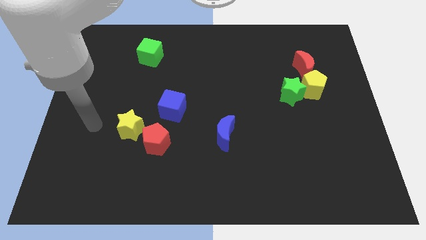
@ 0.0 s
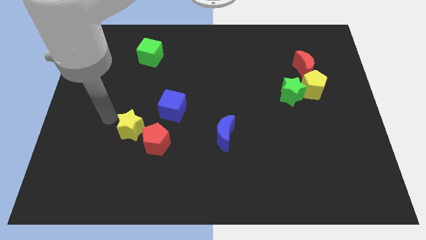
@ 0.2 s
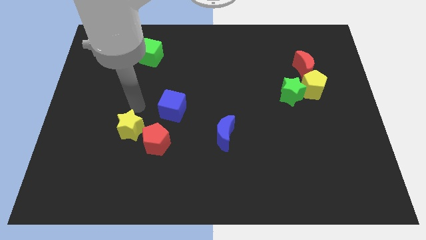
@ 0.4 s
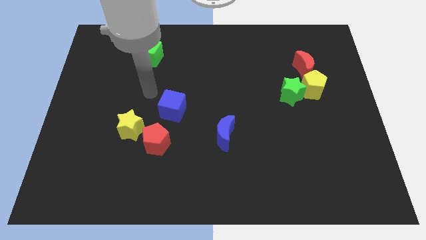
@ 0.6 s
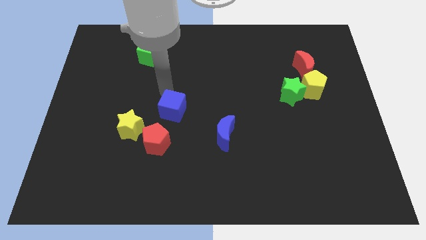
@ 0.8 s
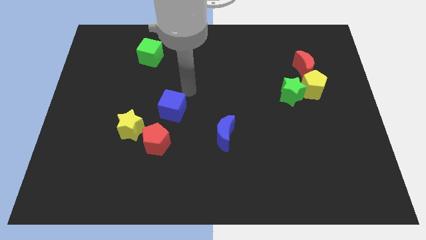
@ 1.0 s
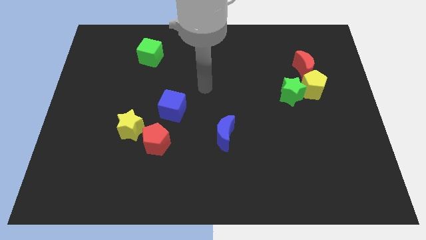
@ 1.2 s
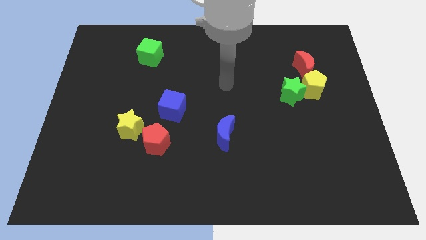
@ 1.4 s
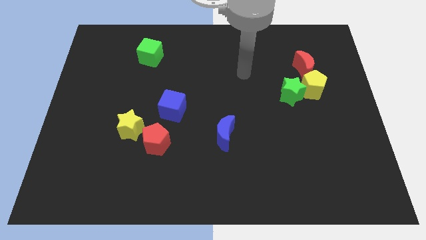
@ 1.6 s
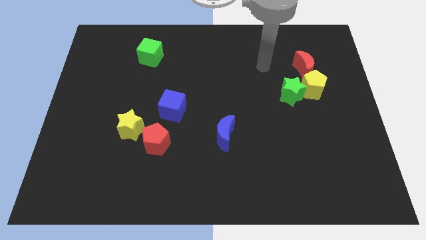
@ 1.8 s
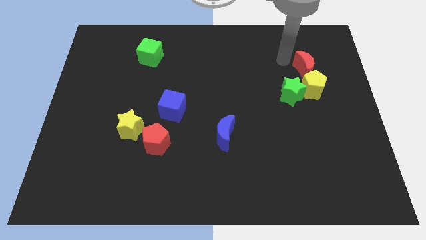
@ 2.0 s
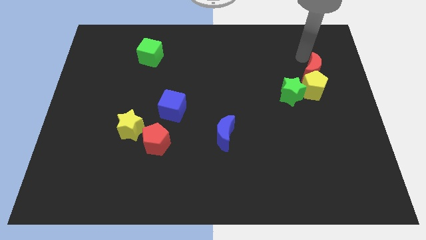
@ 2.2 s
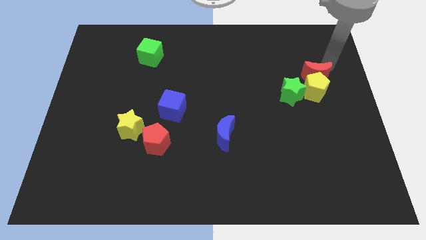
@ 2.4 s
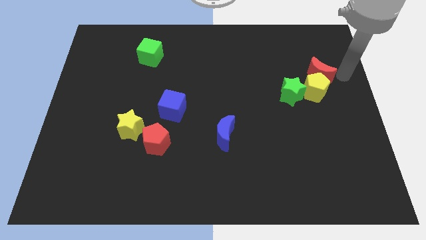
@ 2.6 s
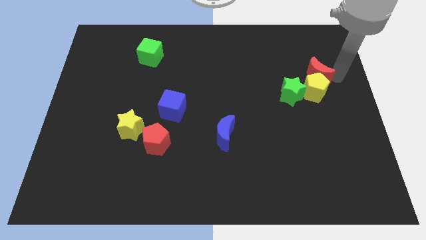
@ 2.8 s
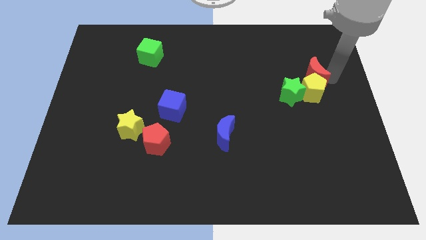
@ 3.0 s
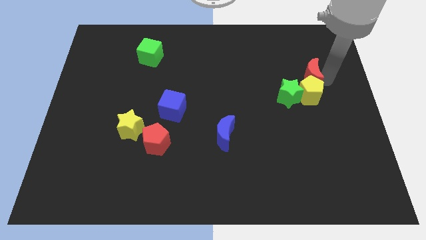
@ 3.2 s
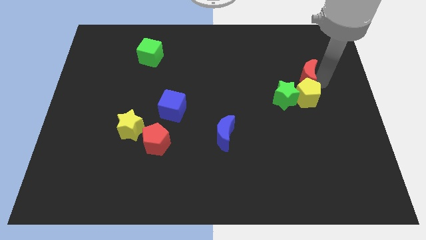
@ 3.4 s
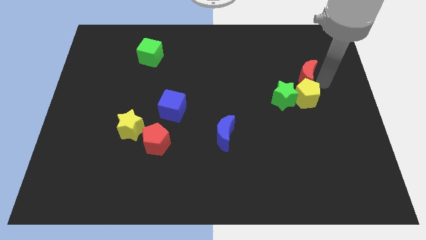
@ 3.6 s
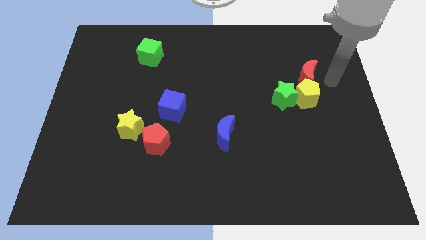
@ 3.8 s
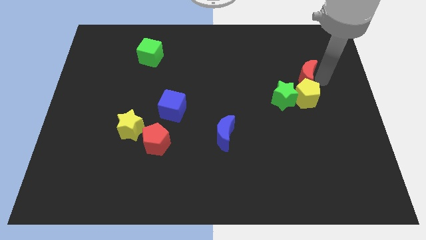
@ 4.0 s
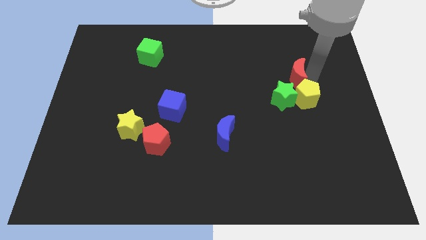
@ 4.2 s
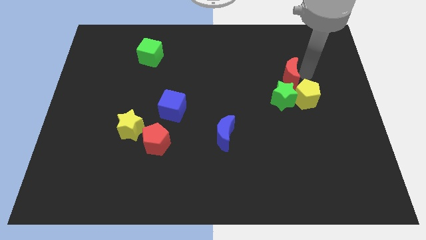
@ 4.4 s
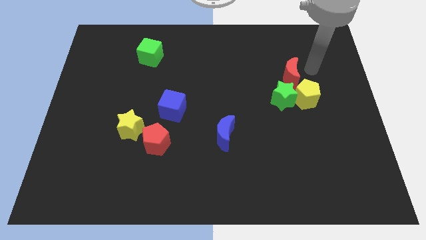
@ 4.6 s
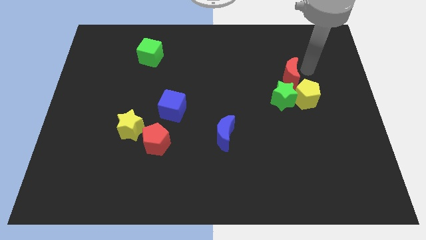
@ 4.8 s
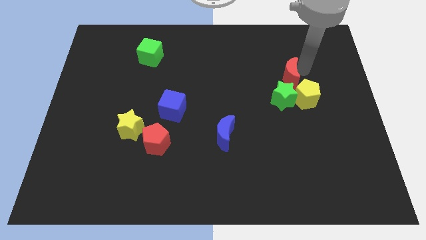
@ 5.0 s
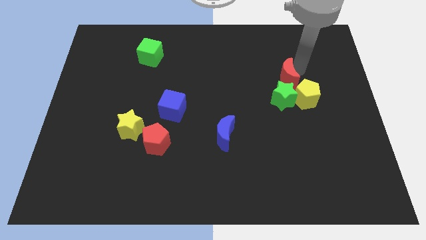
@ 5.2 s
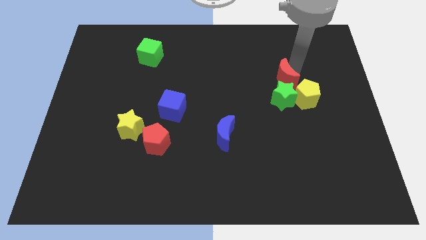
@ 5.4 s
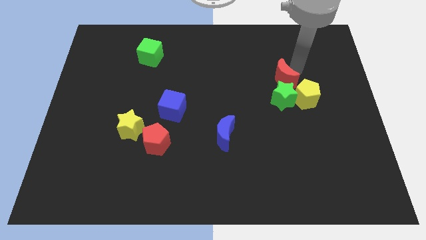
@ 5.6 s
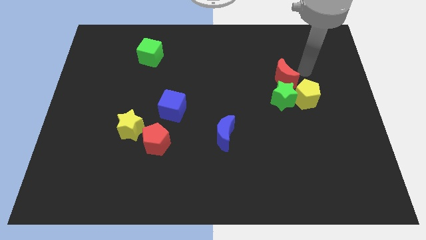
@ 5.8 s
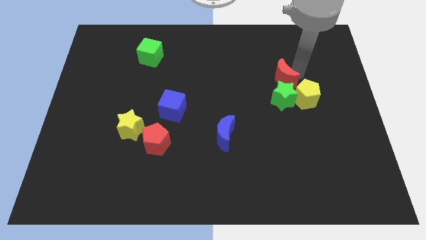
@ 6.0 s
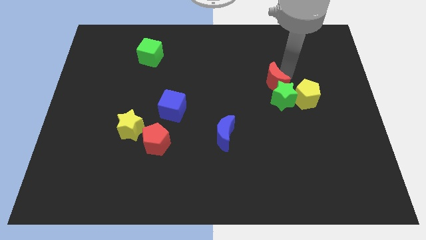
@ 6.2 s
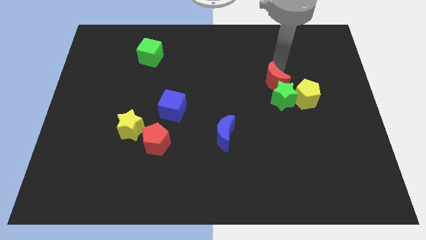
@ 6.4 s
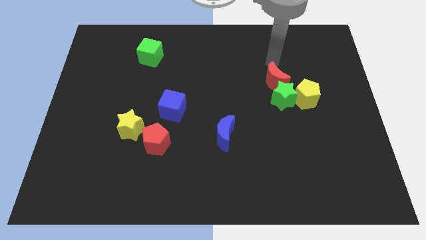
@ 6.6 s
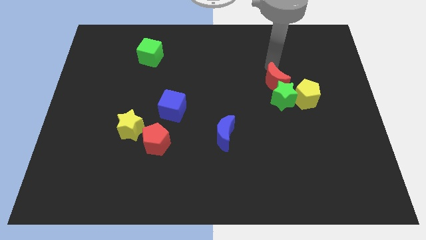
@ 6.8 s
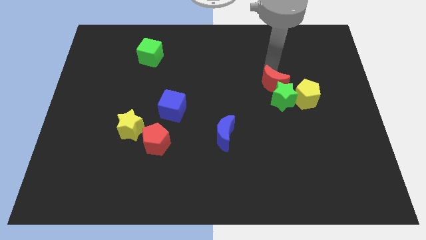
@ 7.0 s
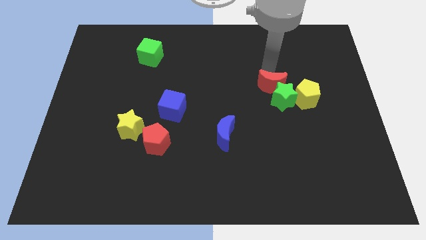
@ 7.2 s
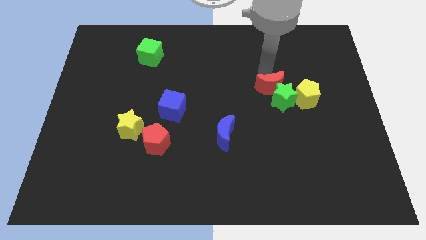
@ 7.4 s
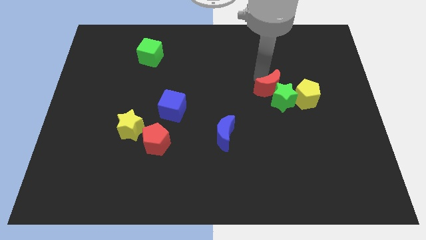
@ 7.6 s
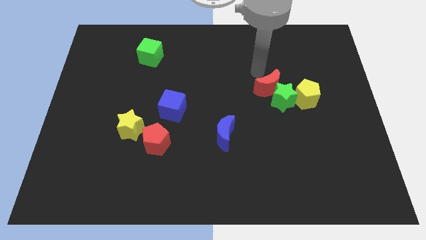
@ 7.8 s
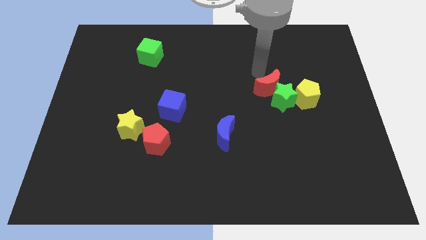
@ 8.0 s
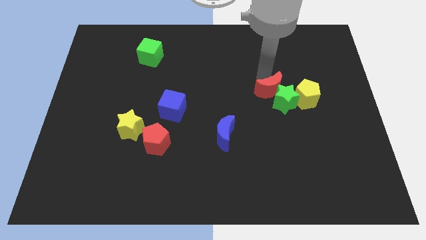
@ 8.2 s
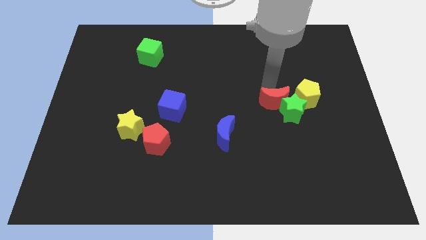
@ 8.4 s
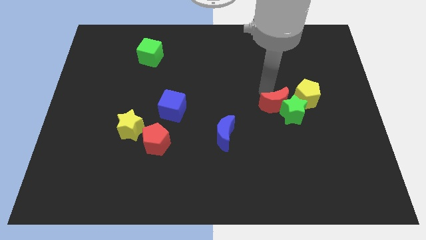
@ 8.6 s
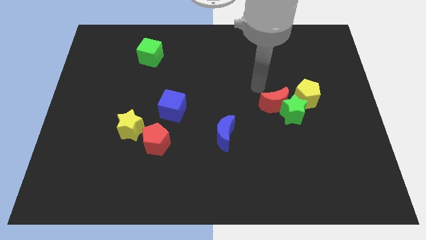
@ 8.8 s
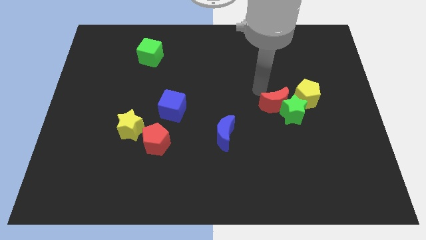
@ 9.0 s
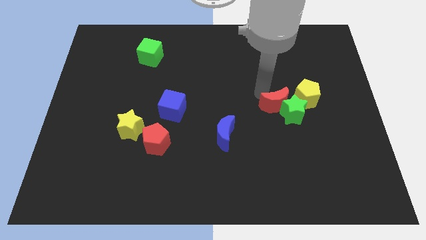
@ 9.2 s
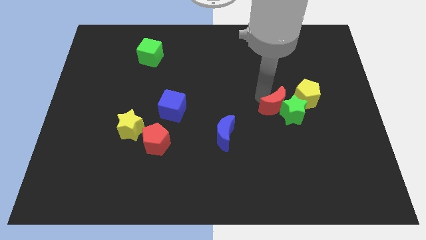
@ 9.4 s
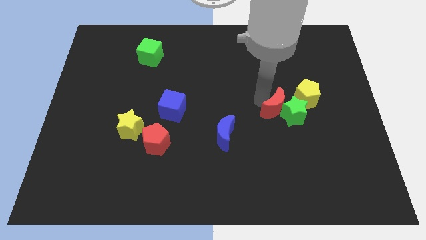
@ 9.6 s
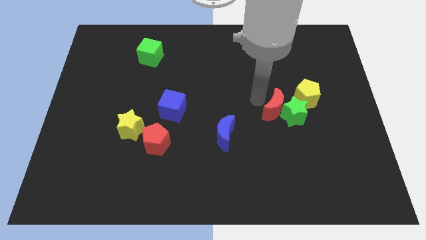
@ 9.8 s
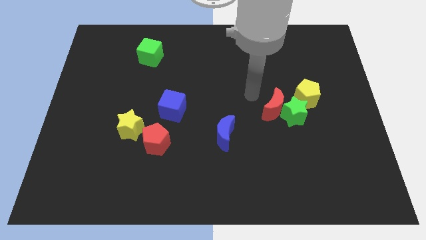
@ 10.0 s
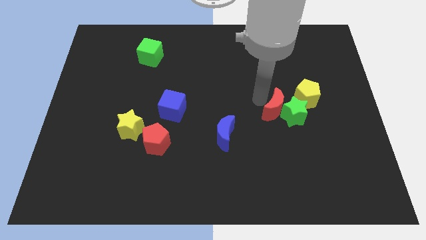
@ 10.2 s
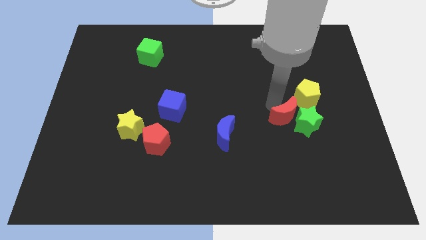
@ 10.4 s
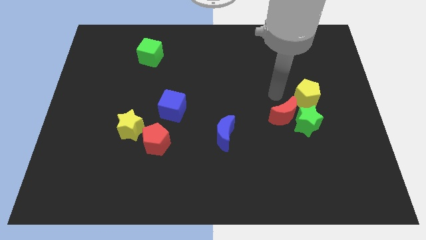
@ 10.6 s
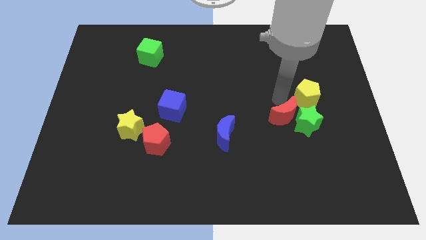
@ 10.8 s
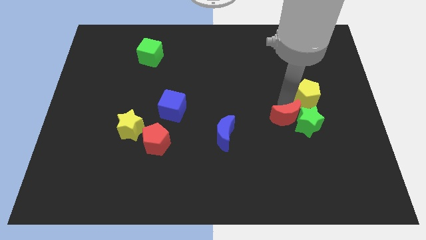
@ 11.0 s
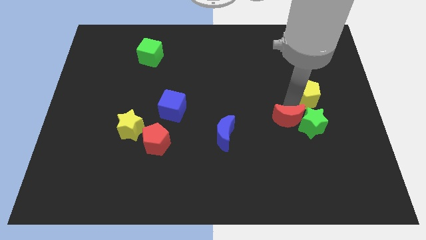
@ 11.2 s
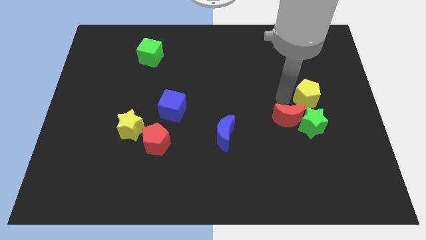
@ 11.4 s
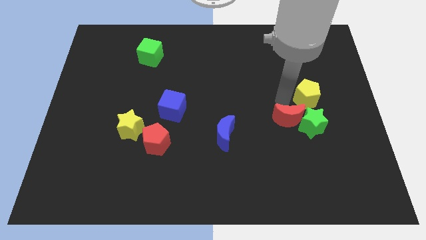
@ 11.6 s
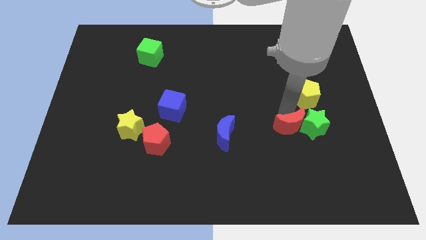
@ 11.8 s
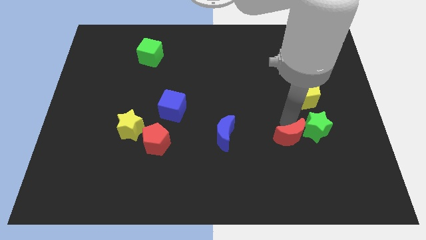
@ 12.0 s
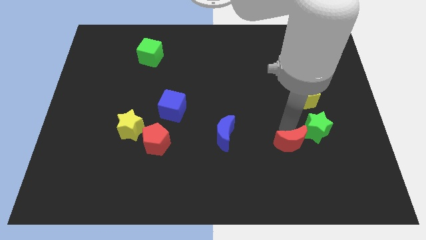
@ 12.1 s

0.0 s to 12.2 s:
slide the red moon downwards

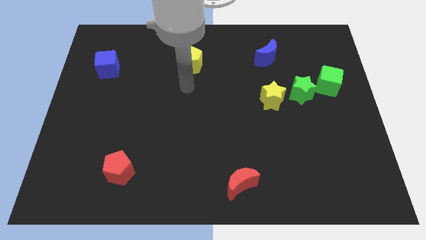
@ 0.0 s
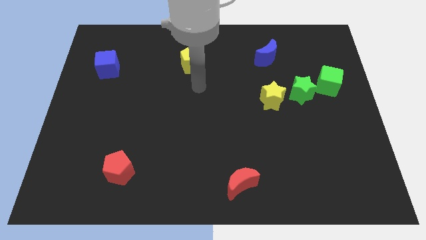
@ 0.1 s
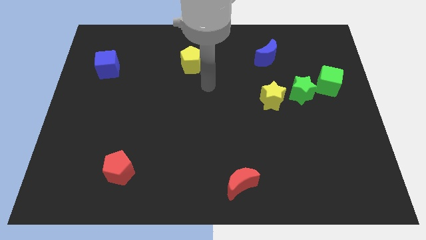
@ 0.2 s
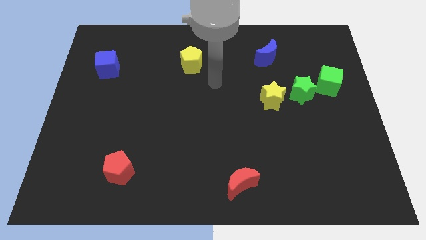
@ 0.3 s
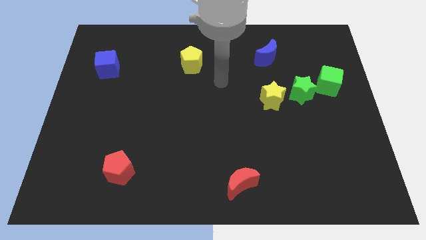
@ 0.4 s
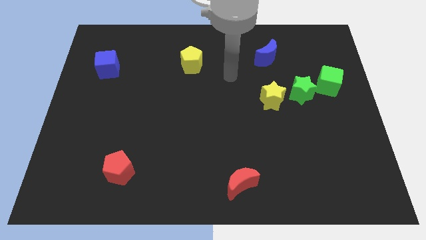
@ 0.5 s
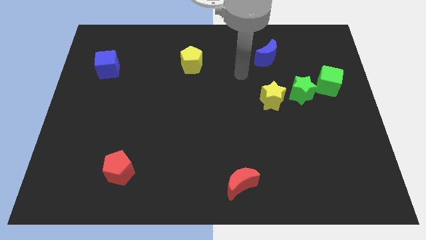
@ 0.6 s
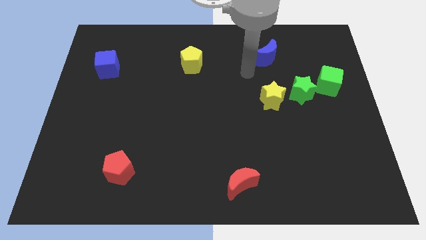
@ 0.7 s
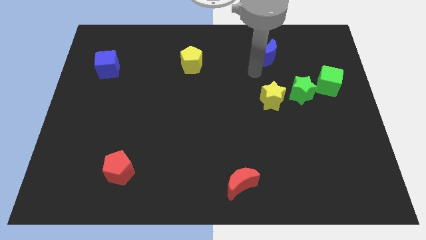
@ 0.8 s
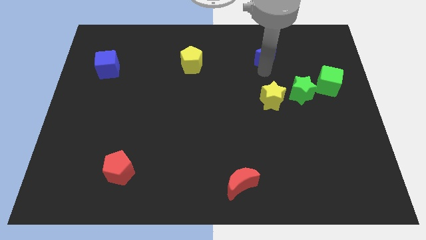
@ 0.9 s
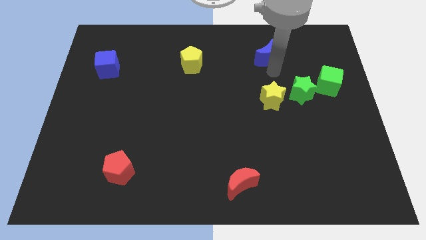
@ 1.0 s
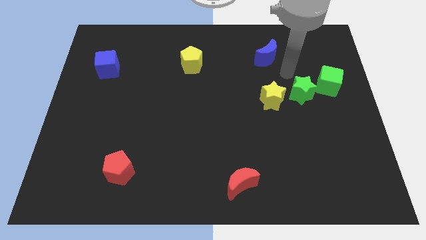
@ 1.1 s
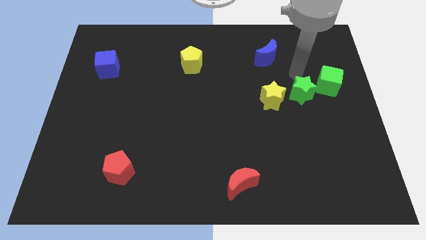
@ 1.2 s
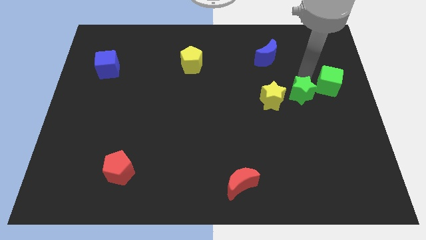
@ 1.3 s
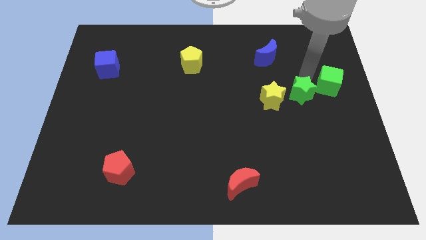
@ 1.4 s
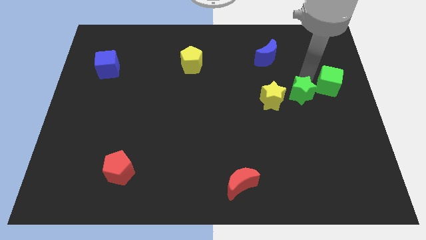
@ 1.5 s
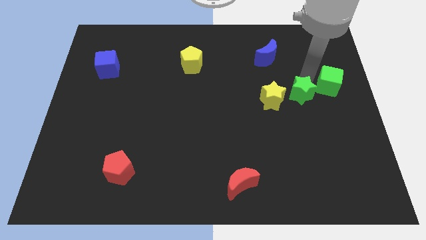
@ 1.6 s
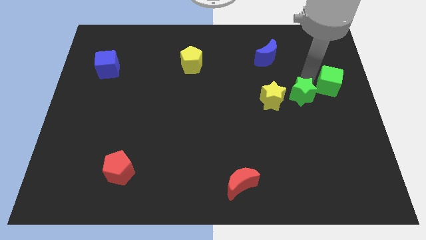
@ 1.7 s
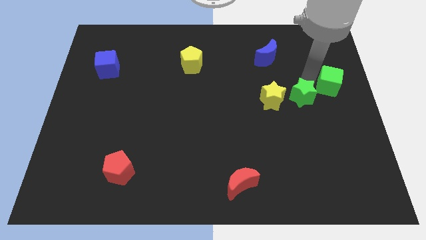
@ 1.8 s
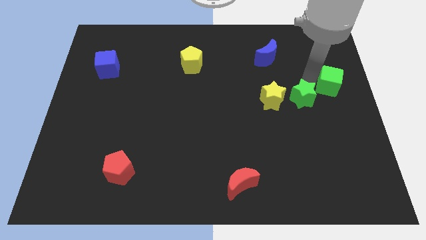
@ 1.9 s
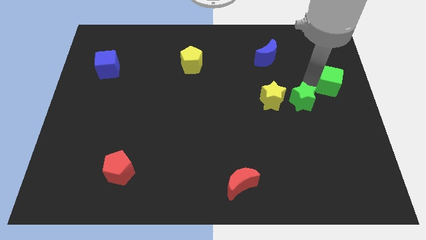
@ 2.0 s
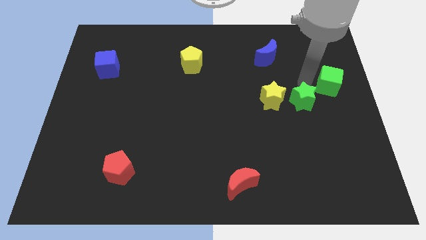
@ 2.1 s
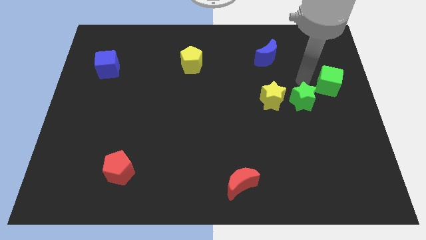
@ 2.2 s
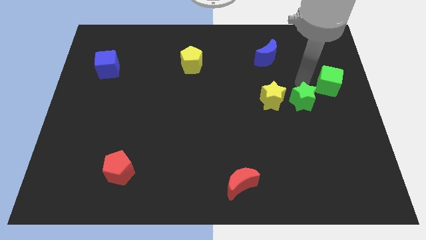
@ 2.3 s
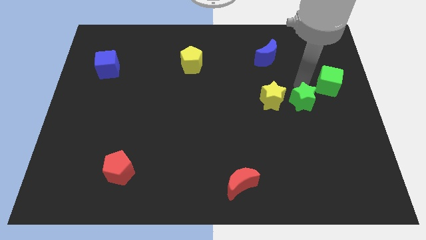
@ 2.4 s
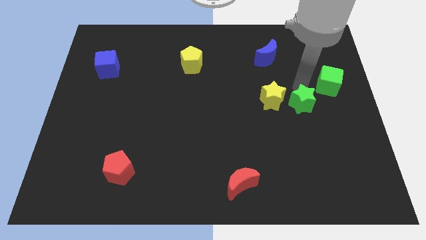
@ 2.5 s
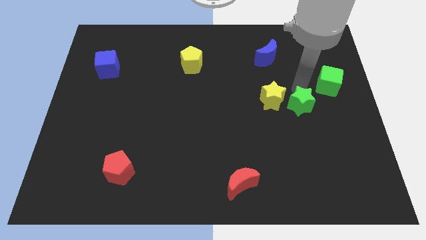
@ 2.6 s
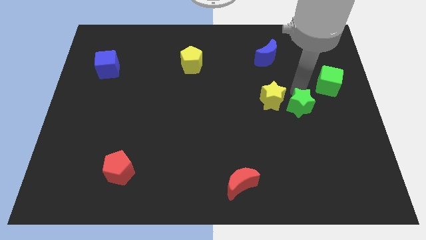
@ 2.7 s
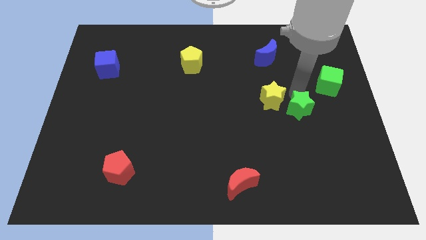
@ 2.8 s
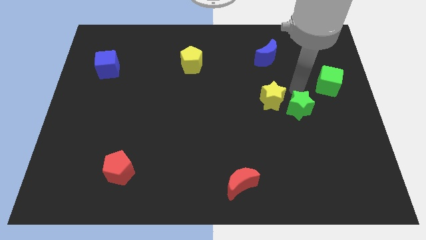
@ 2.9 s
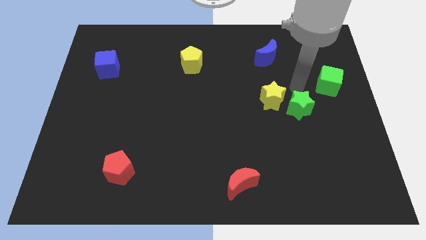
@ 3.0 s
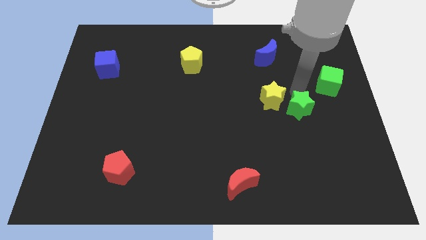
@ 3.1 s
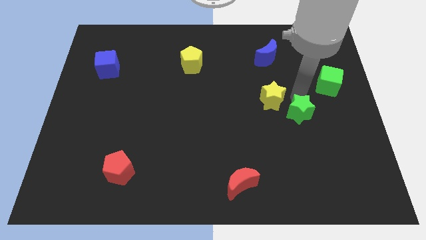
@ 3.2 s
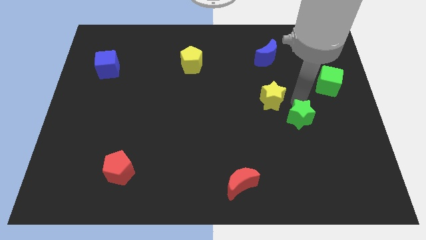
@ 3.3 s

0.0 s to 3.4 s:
slightly push the green star downwards
